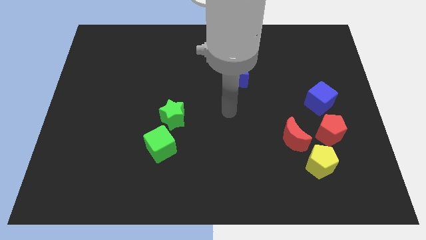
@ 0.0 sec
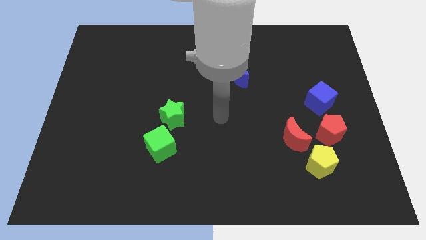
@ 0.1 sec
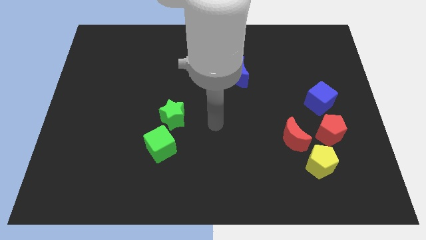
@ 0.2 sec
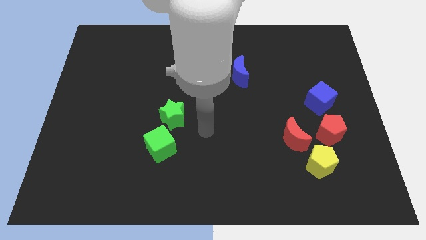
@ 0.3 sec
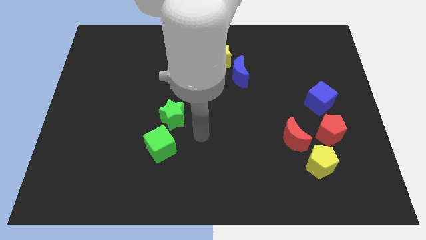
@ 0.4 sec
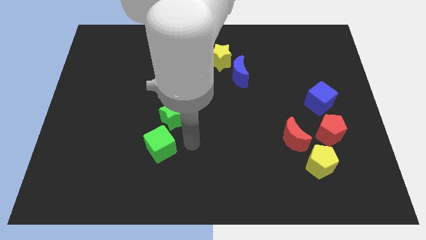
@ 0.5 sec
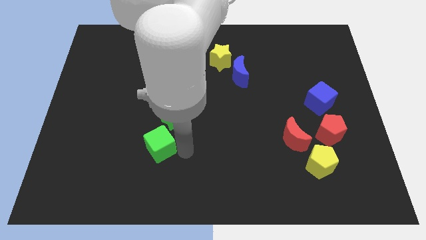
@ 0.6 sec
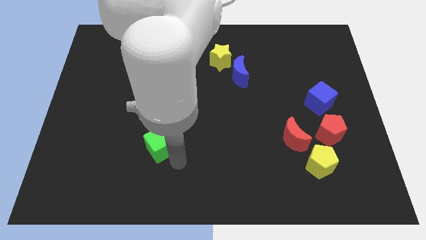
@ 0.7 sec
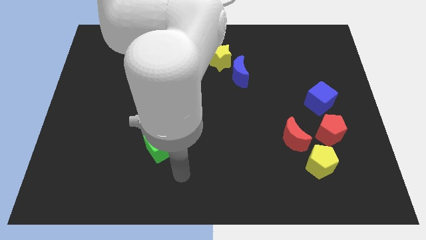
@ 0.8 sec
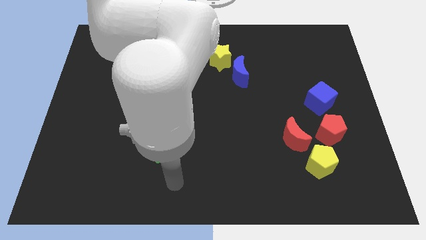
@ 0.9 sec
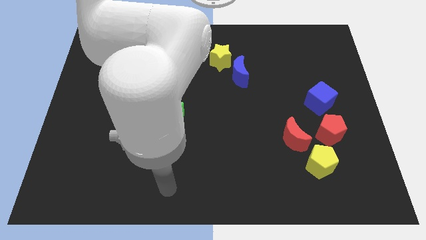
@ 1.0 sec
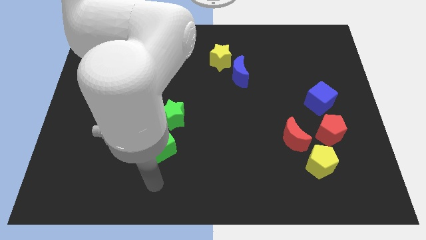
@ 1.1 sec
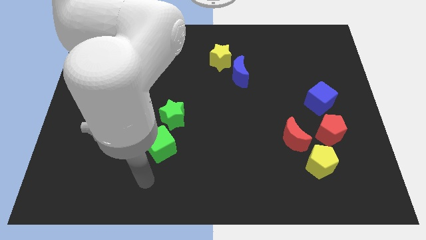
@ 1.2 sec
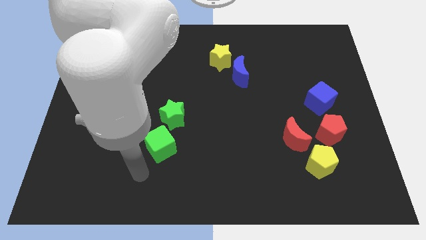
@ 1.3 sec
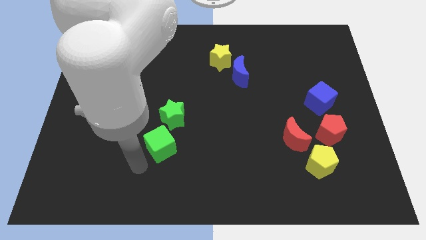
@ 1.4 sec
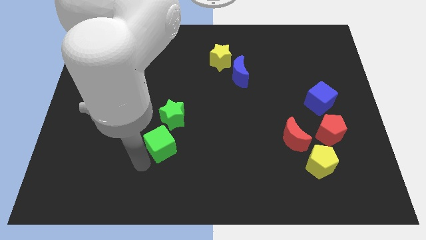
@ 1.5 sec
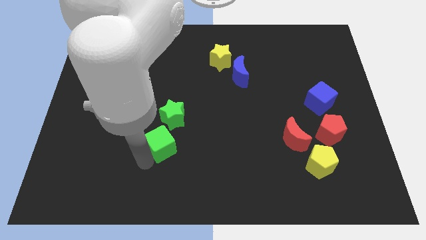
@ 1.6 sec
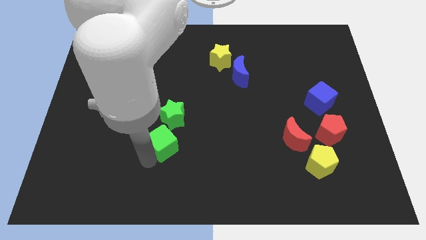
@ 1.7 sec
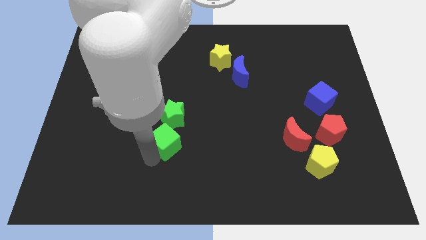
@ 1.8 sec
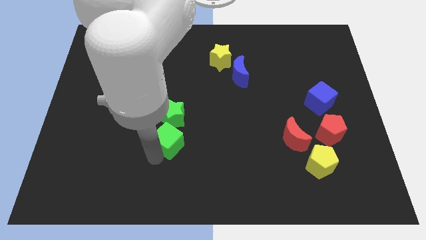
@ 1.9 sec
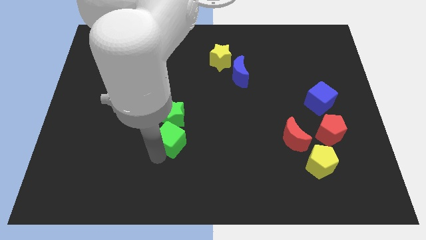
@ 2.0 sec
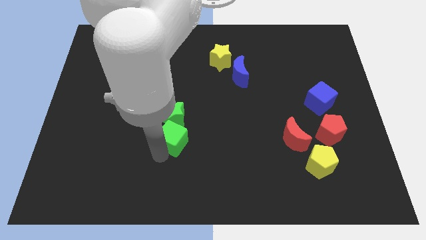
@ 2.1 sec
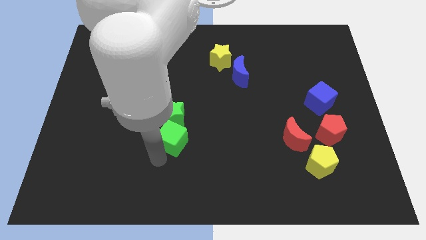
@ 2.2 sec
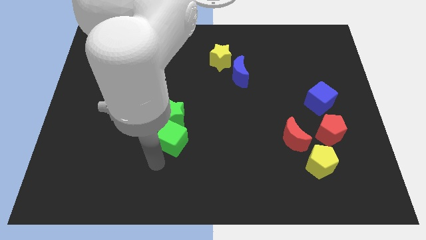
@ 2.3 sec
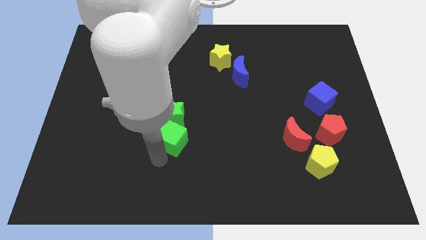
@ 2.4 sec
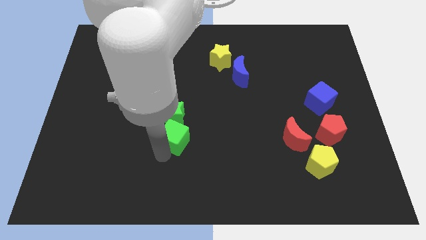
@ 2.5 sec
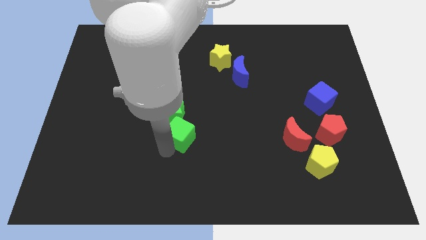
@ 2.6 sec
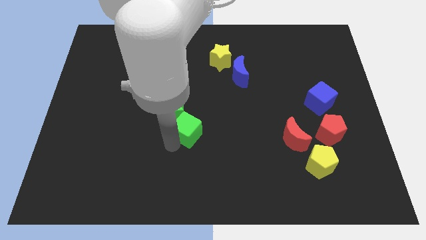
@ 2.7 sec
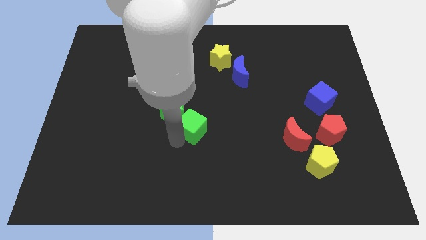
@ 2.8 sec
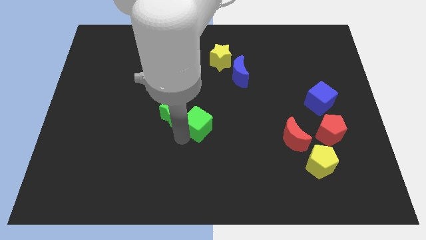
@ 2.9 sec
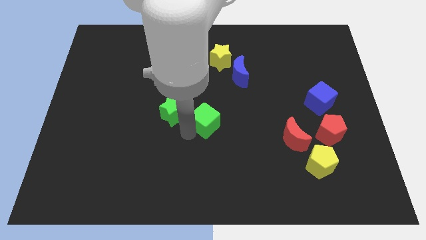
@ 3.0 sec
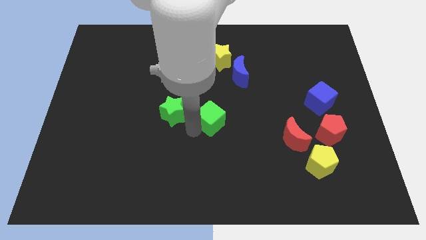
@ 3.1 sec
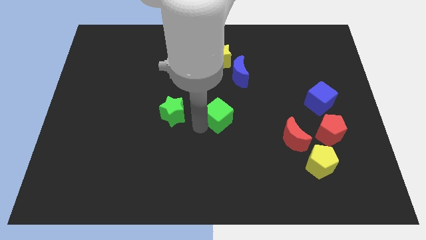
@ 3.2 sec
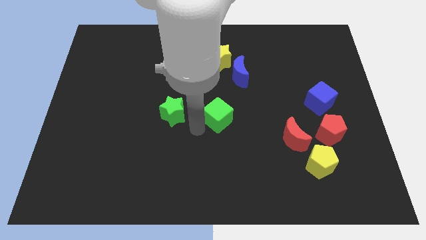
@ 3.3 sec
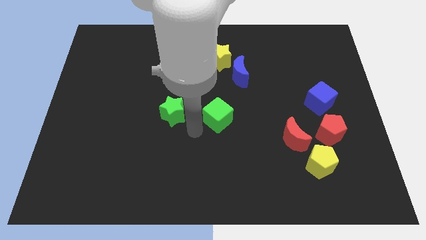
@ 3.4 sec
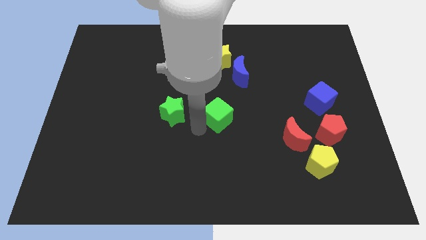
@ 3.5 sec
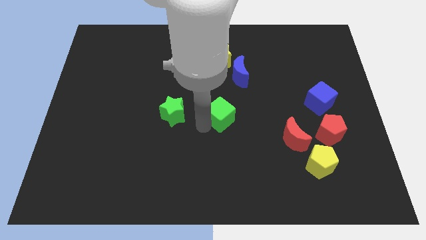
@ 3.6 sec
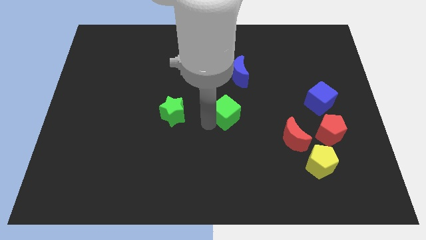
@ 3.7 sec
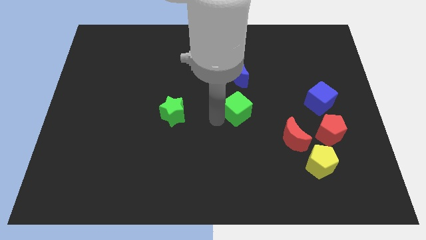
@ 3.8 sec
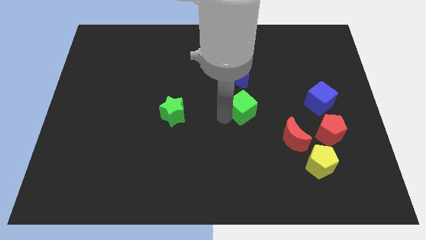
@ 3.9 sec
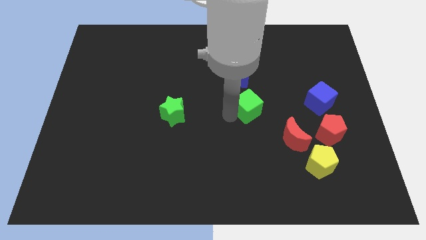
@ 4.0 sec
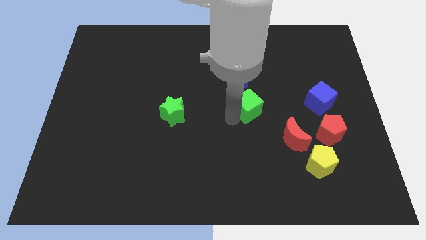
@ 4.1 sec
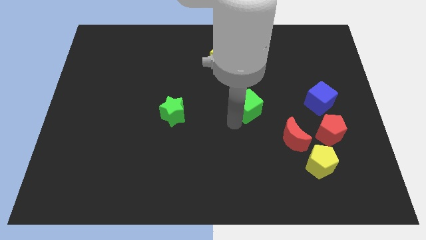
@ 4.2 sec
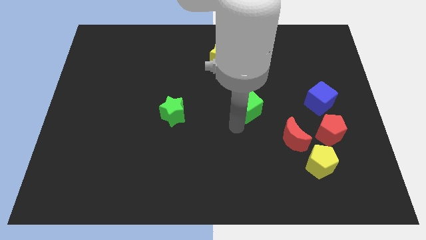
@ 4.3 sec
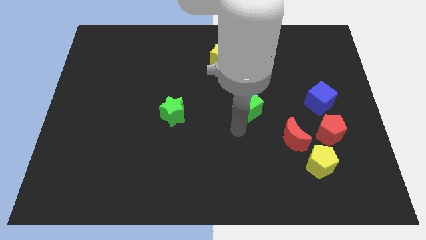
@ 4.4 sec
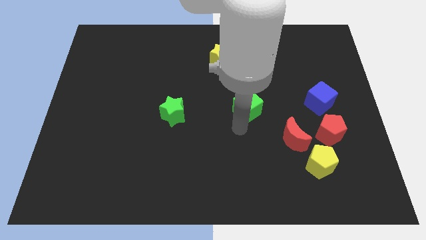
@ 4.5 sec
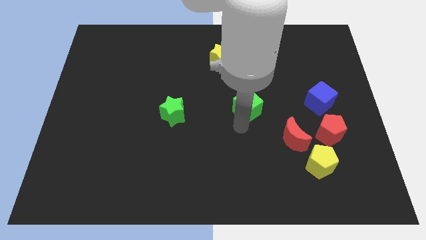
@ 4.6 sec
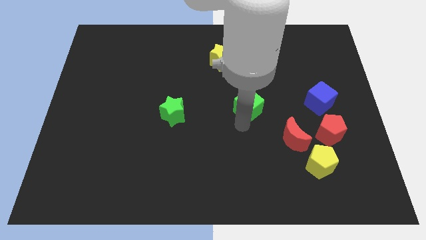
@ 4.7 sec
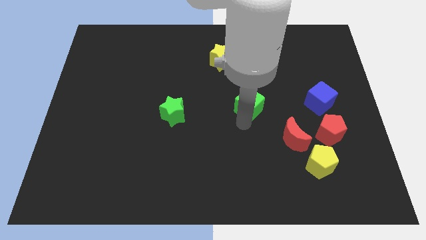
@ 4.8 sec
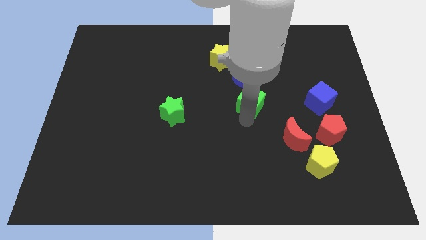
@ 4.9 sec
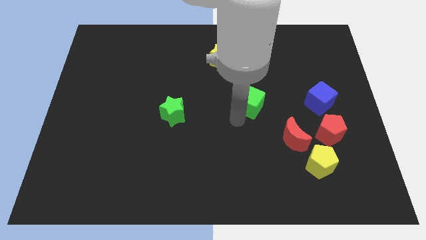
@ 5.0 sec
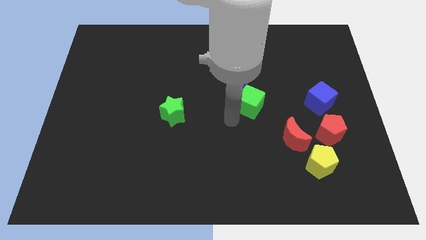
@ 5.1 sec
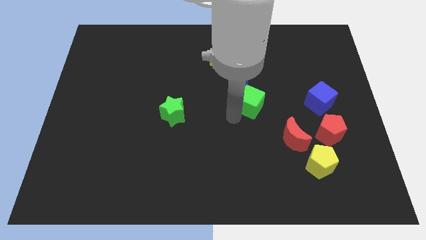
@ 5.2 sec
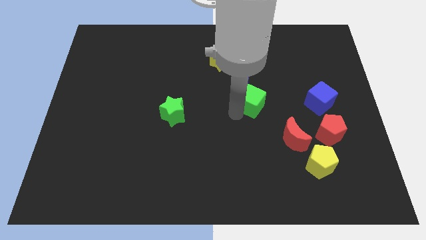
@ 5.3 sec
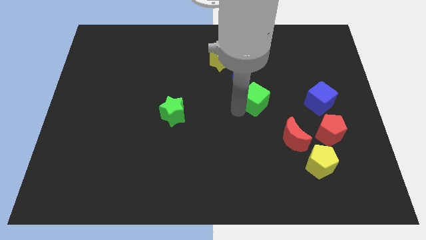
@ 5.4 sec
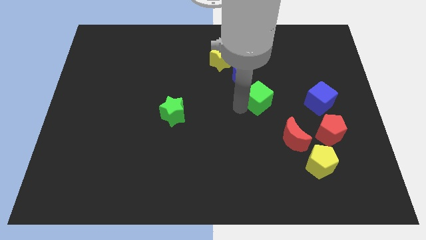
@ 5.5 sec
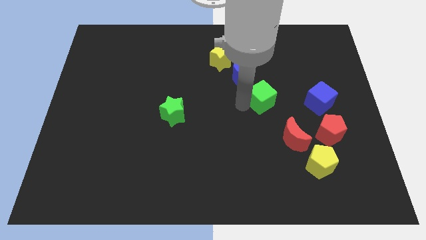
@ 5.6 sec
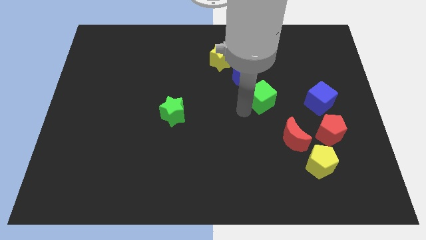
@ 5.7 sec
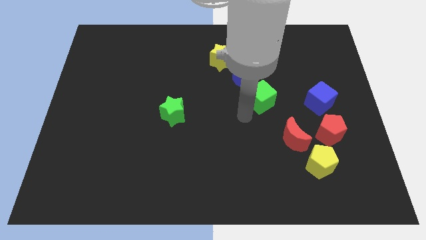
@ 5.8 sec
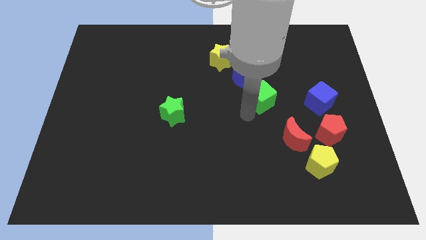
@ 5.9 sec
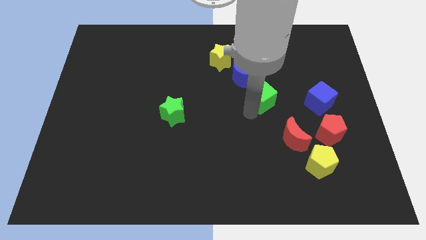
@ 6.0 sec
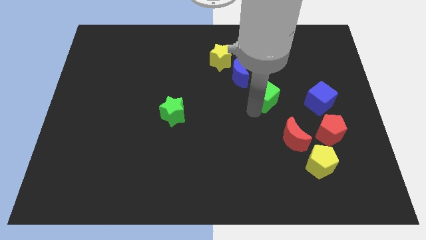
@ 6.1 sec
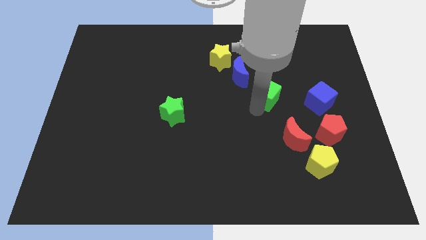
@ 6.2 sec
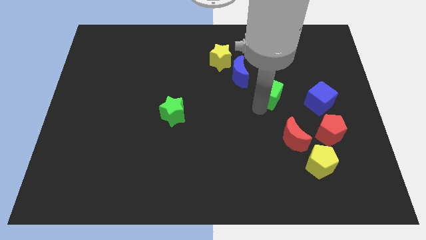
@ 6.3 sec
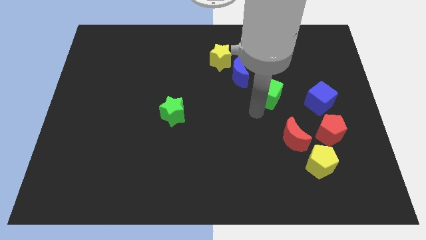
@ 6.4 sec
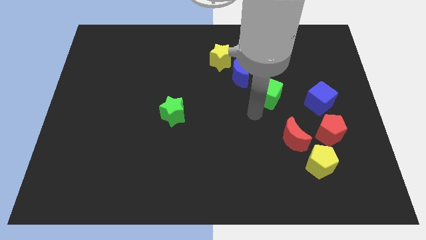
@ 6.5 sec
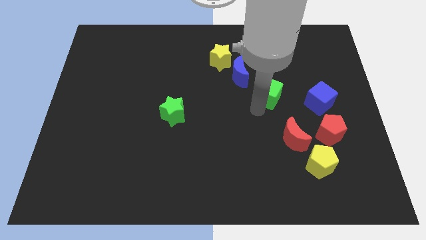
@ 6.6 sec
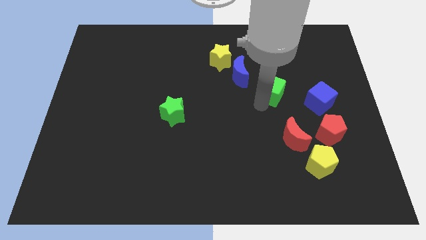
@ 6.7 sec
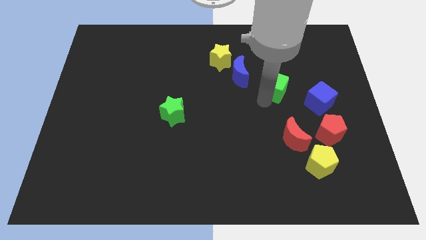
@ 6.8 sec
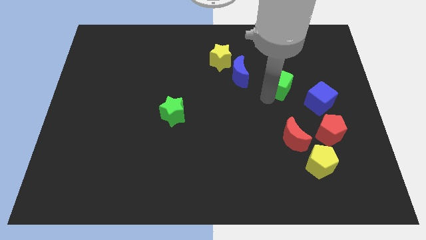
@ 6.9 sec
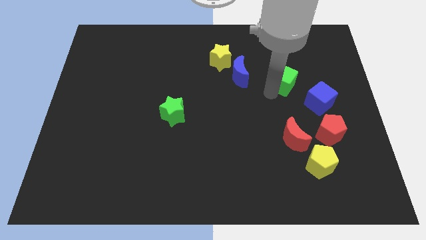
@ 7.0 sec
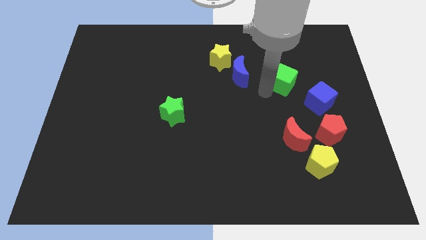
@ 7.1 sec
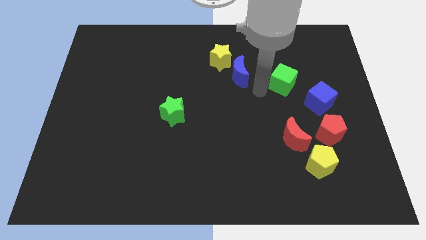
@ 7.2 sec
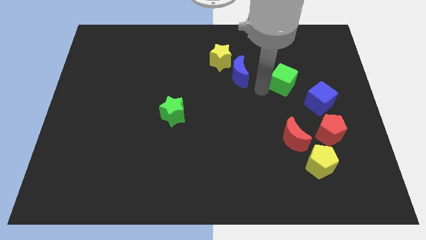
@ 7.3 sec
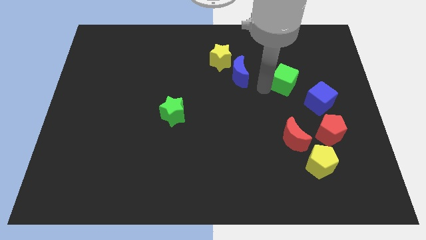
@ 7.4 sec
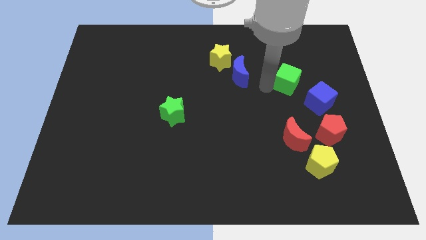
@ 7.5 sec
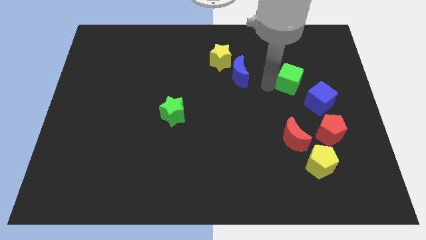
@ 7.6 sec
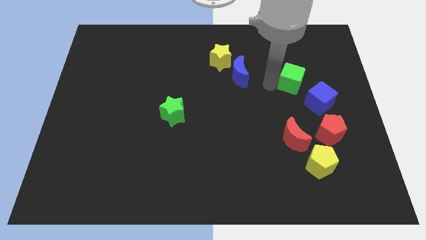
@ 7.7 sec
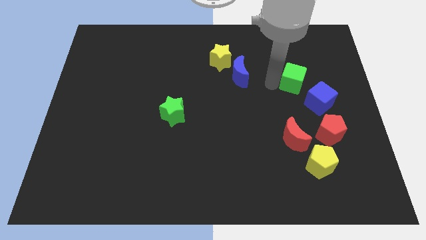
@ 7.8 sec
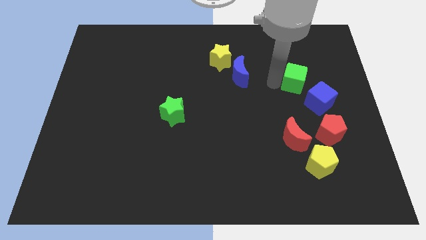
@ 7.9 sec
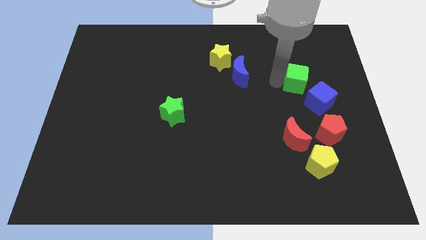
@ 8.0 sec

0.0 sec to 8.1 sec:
push the green cube to the top of the blue cube
